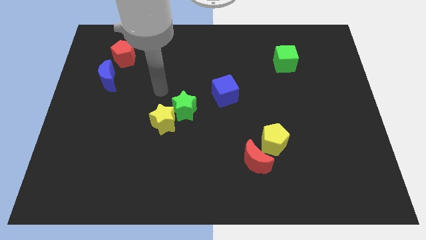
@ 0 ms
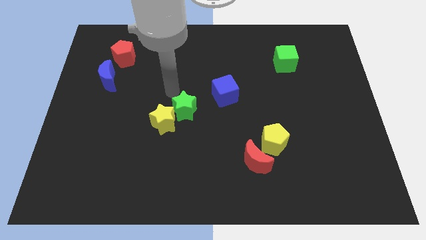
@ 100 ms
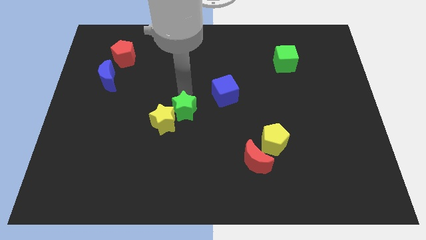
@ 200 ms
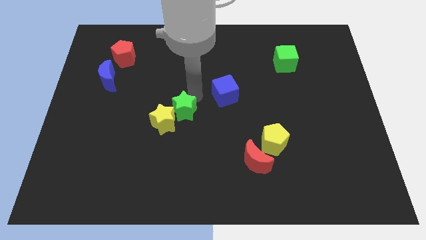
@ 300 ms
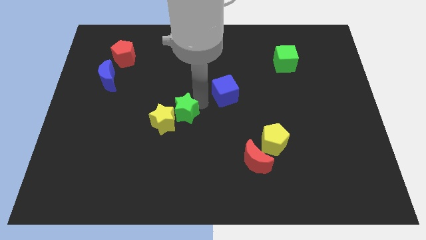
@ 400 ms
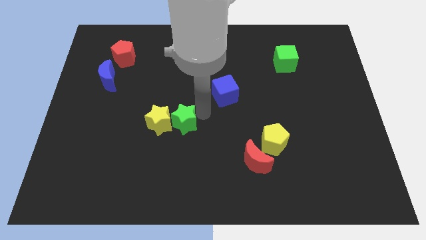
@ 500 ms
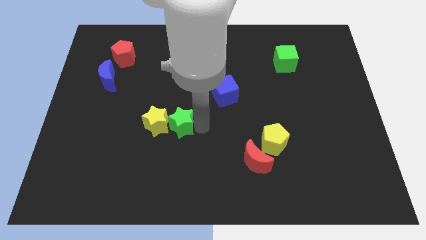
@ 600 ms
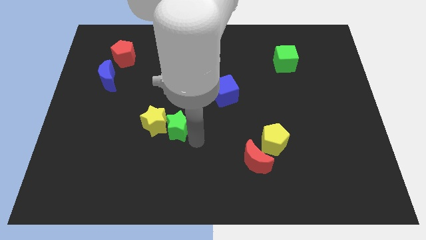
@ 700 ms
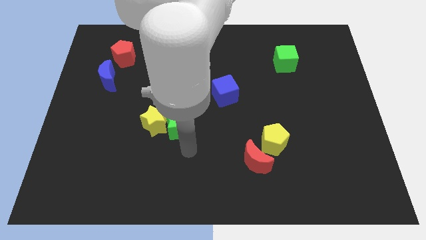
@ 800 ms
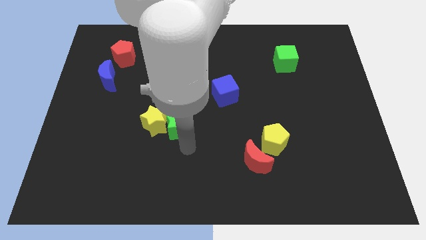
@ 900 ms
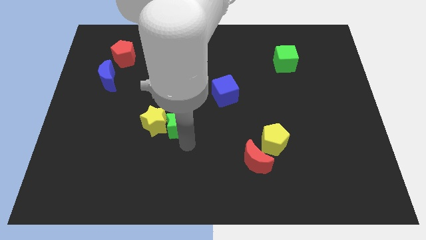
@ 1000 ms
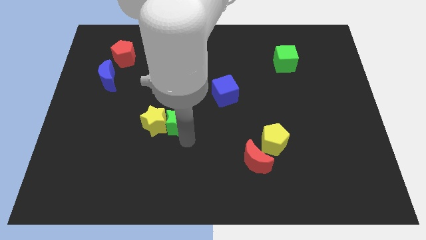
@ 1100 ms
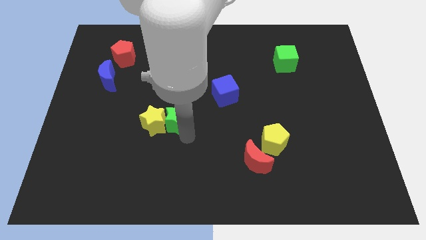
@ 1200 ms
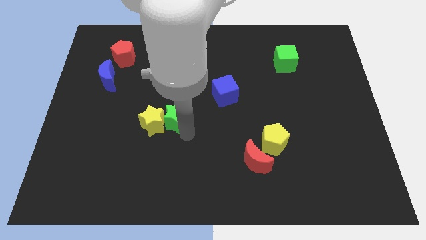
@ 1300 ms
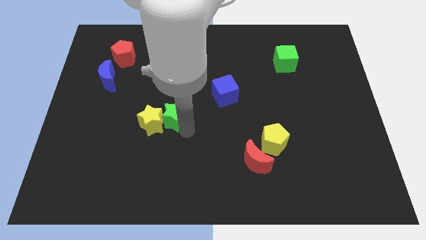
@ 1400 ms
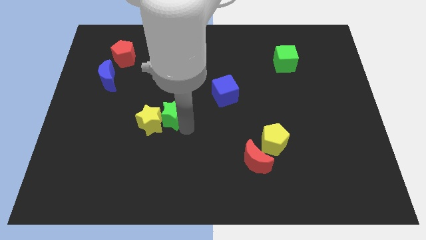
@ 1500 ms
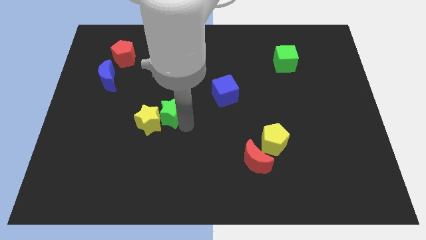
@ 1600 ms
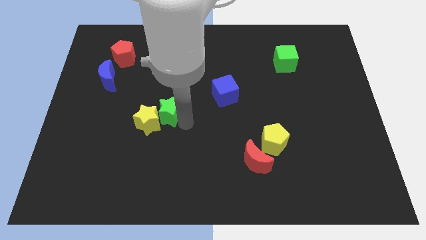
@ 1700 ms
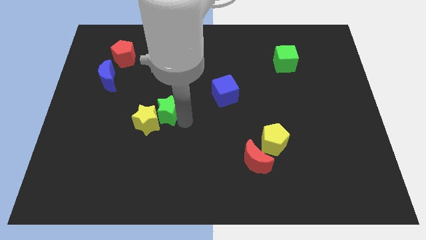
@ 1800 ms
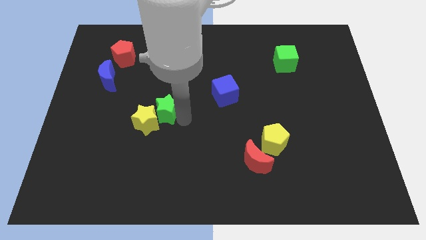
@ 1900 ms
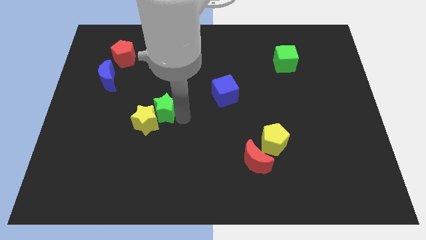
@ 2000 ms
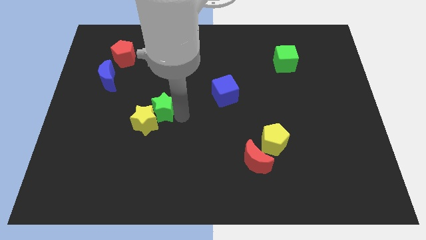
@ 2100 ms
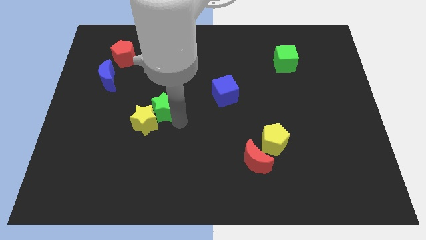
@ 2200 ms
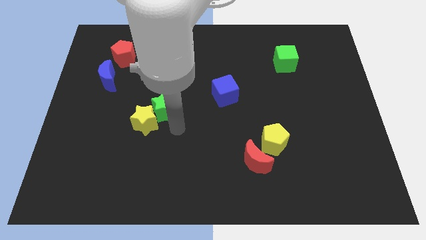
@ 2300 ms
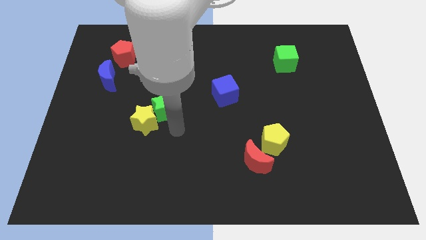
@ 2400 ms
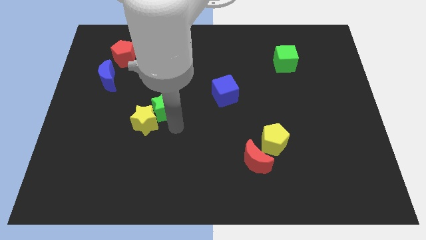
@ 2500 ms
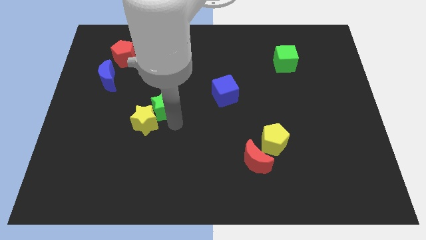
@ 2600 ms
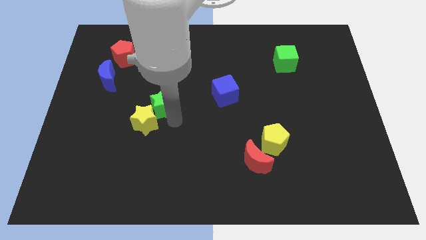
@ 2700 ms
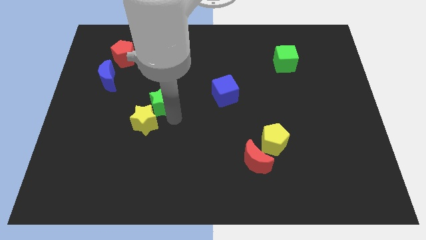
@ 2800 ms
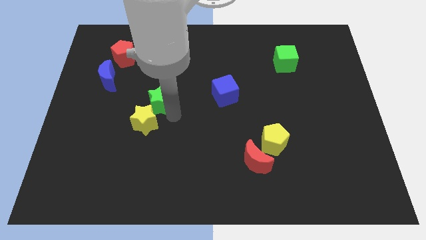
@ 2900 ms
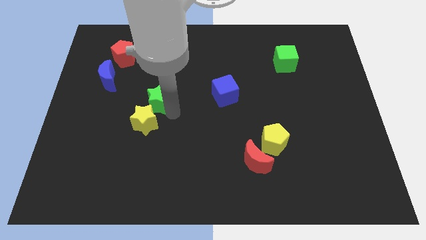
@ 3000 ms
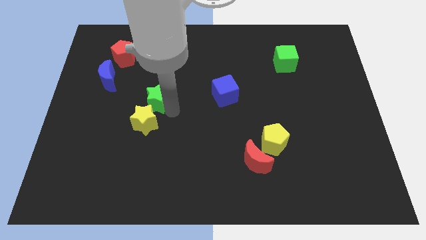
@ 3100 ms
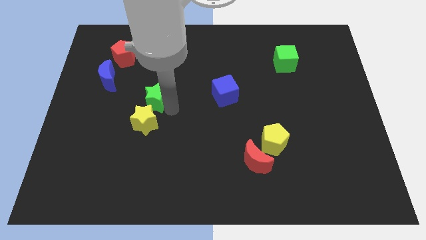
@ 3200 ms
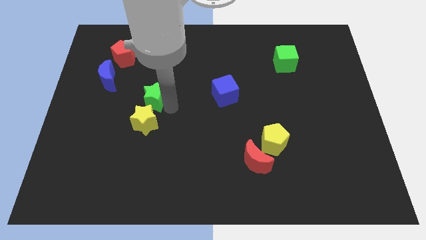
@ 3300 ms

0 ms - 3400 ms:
slightly push the green star up and to the left diagonally

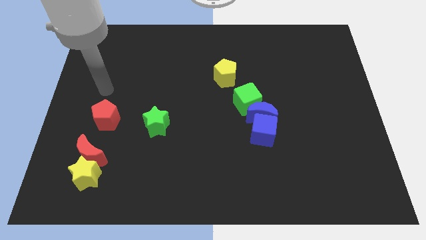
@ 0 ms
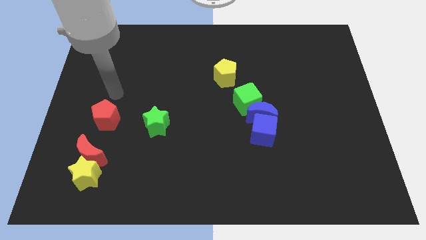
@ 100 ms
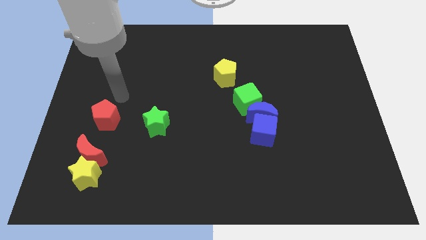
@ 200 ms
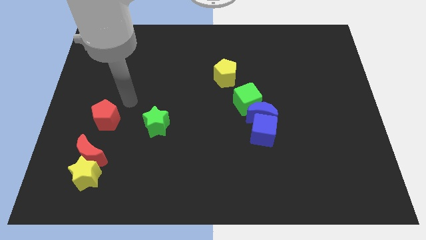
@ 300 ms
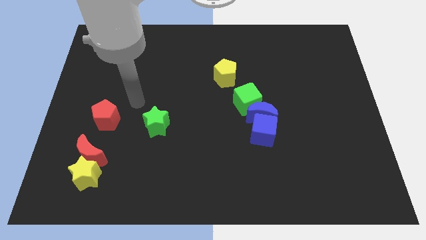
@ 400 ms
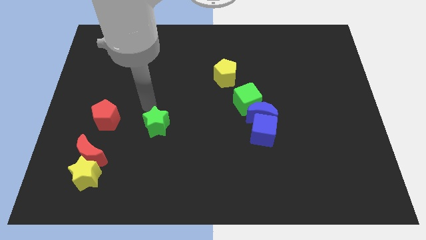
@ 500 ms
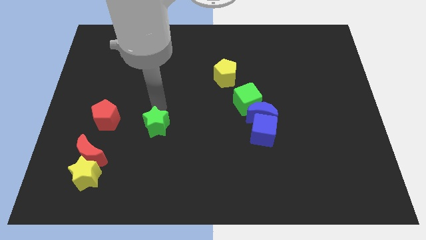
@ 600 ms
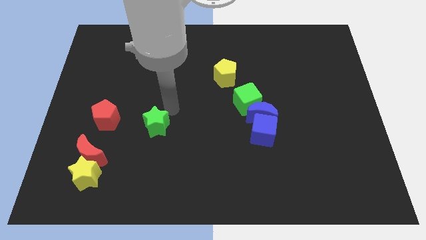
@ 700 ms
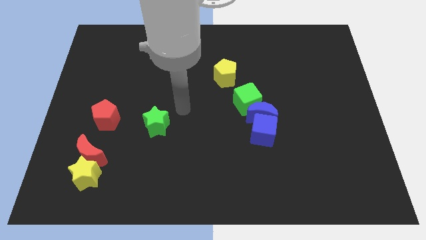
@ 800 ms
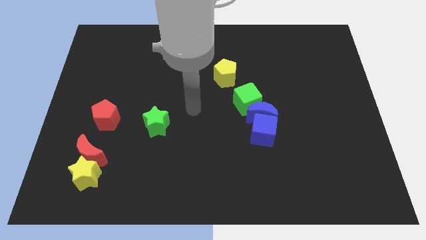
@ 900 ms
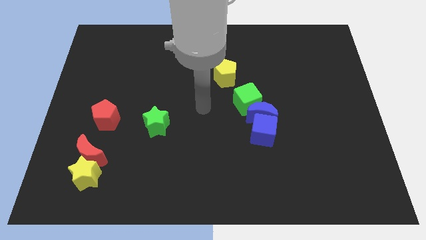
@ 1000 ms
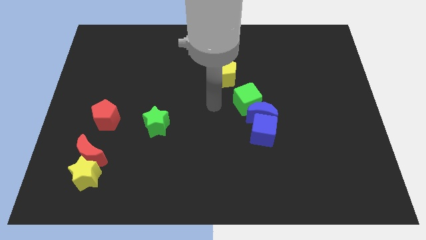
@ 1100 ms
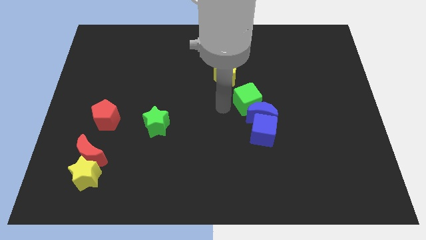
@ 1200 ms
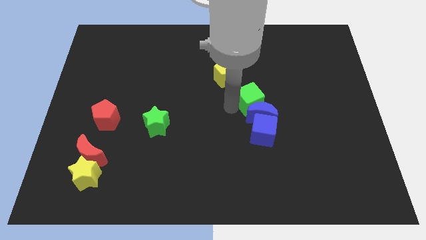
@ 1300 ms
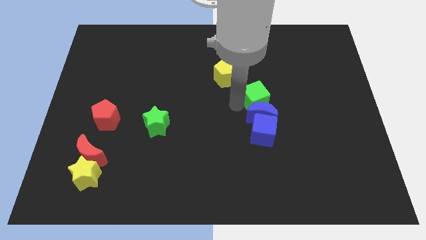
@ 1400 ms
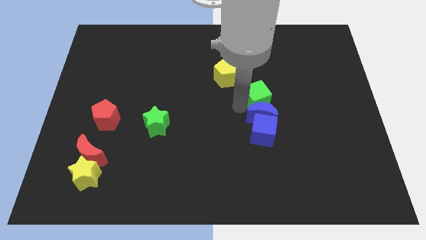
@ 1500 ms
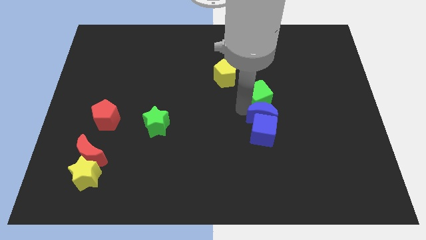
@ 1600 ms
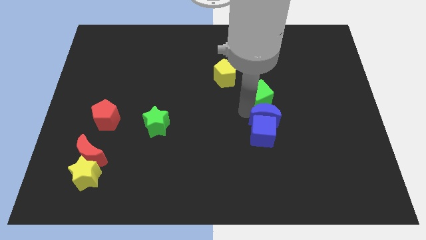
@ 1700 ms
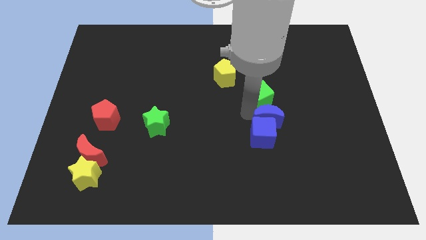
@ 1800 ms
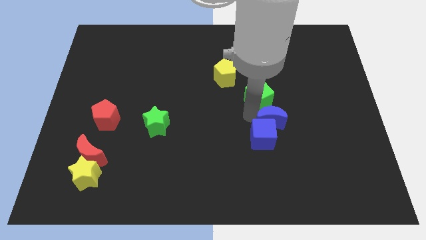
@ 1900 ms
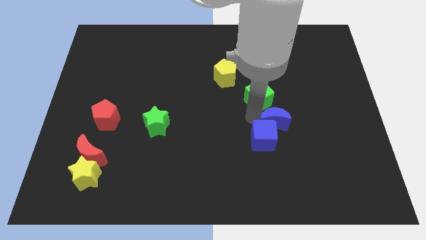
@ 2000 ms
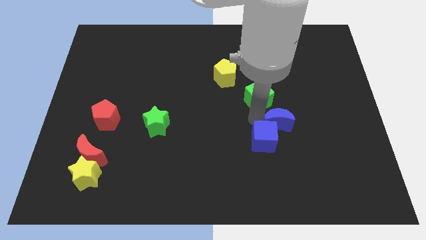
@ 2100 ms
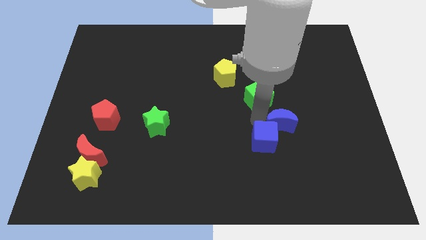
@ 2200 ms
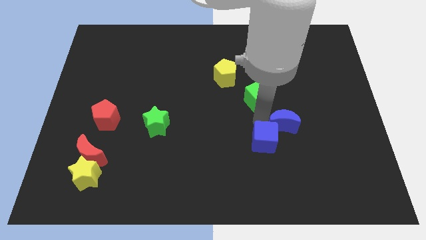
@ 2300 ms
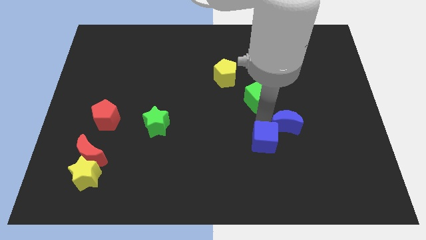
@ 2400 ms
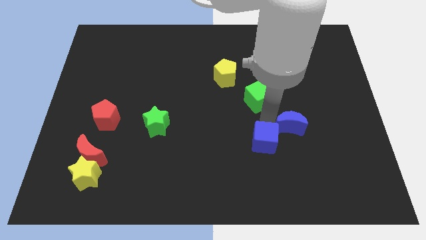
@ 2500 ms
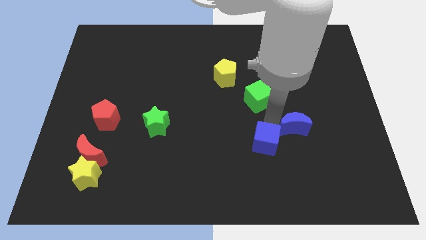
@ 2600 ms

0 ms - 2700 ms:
push the blue moon diagonally downwards and to the right a bit

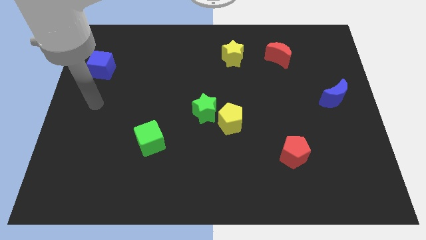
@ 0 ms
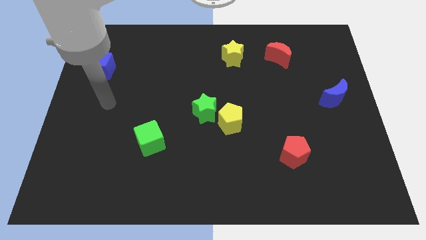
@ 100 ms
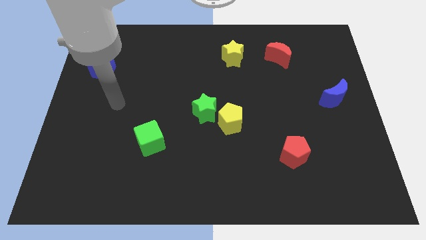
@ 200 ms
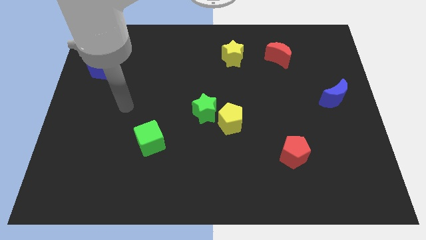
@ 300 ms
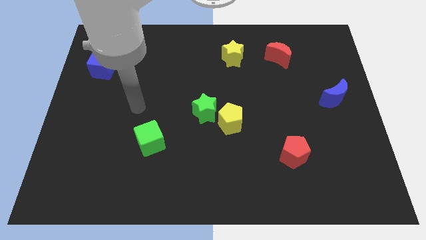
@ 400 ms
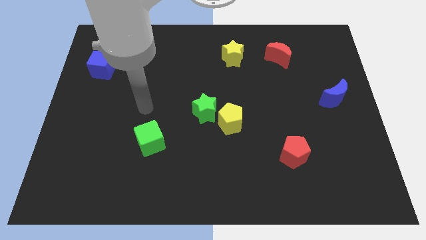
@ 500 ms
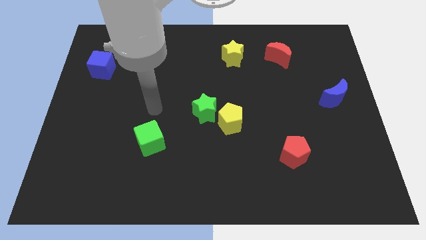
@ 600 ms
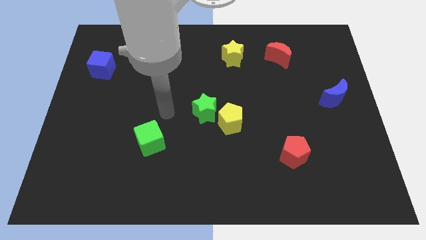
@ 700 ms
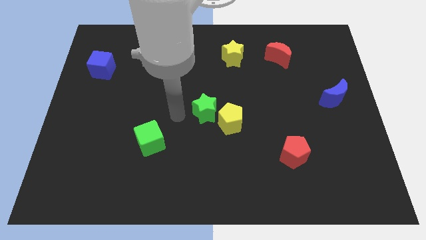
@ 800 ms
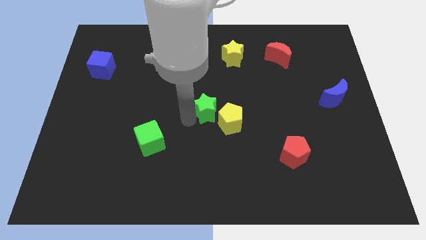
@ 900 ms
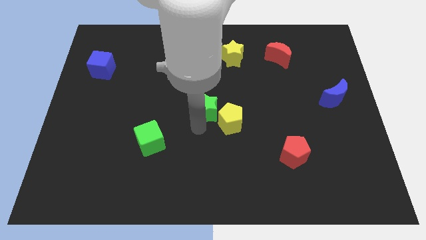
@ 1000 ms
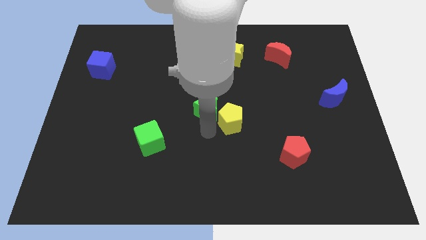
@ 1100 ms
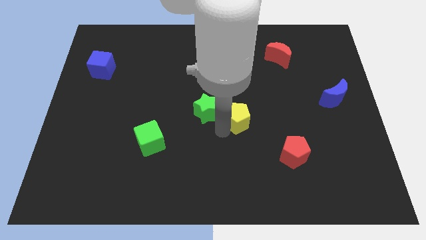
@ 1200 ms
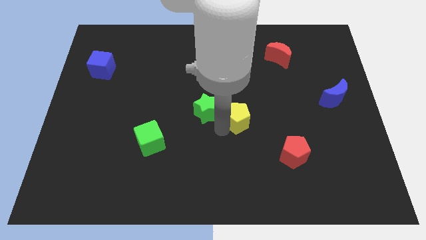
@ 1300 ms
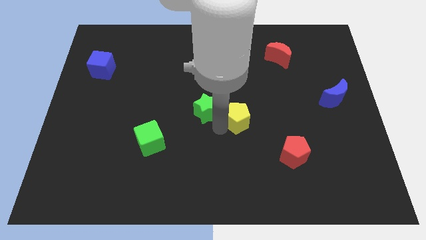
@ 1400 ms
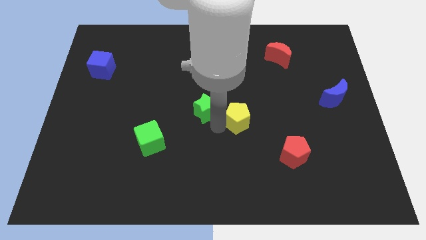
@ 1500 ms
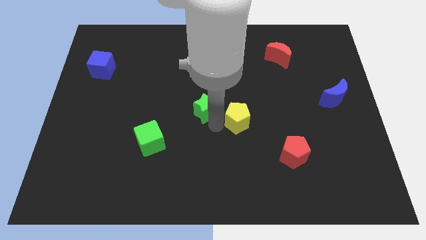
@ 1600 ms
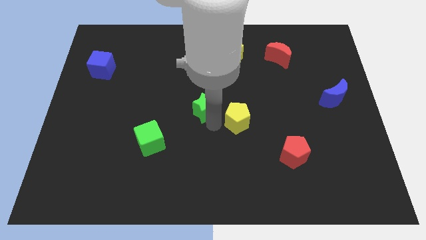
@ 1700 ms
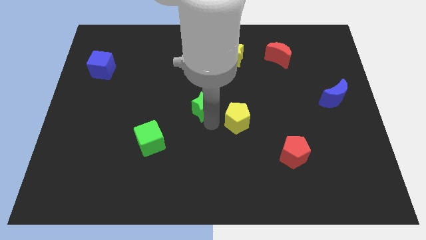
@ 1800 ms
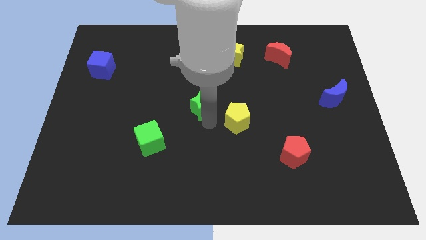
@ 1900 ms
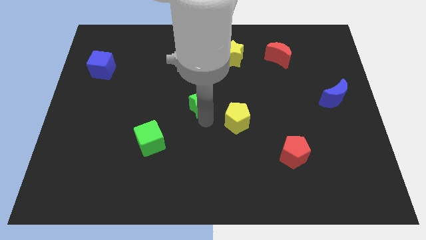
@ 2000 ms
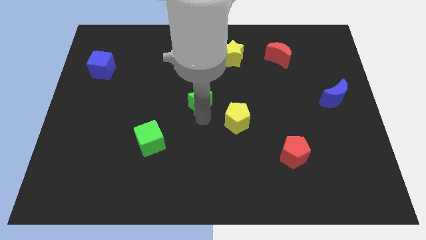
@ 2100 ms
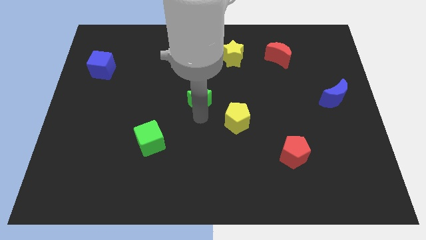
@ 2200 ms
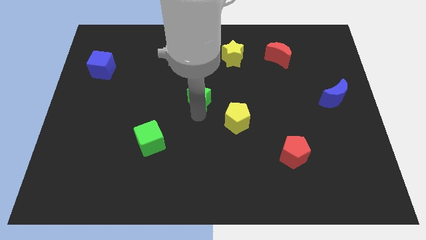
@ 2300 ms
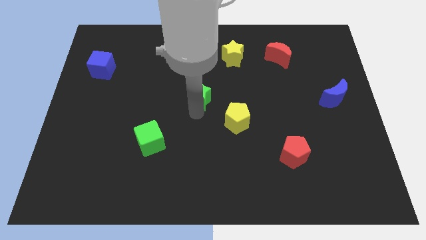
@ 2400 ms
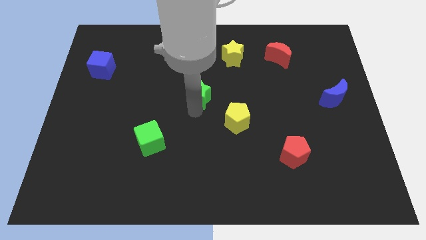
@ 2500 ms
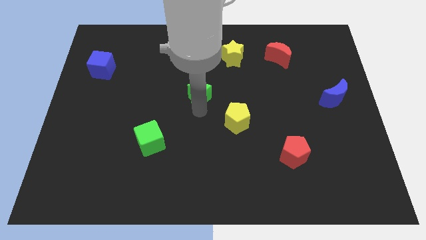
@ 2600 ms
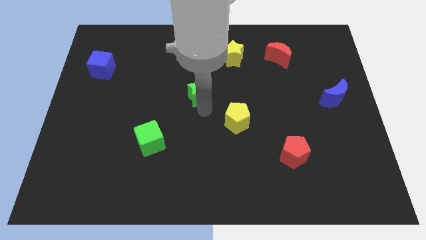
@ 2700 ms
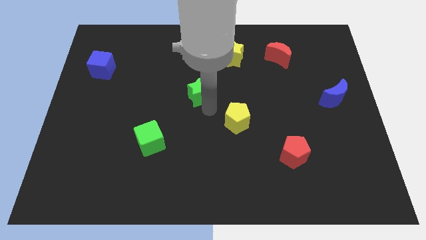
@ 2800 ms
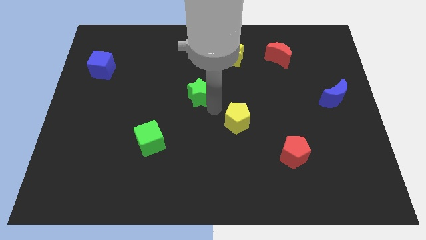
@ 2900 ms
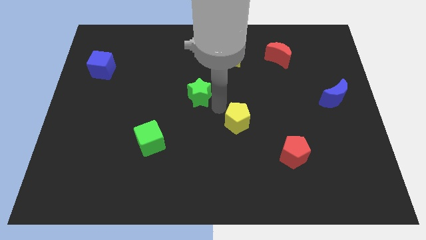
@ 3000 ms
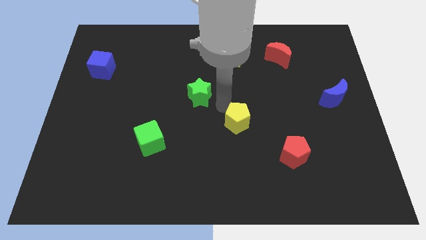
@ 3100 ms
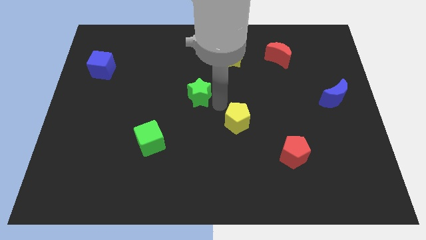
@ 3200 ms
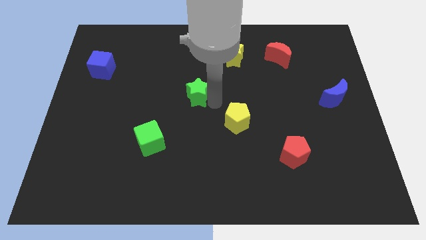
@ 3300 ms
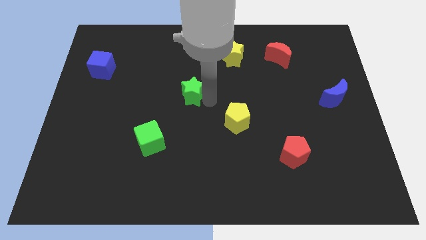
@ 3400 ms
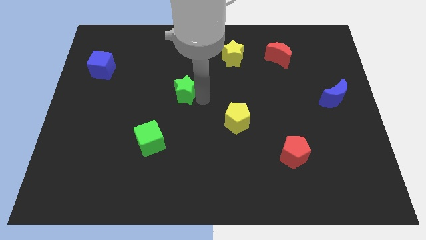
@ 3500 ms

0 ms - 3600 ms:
slide the green star a bit diagonally upwards and to the left
